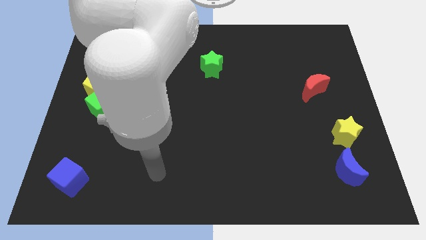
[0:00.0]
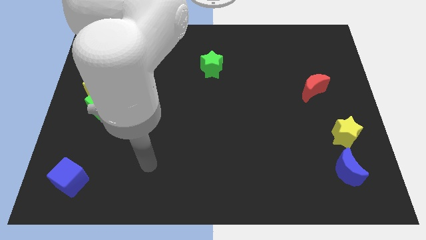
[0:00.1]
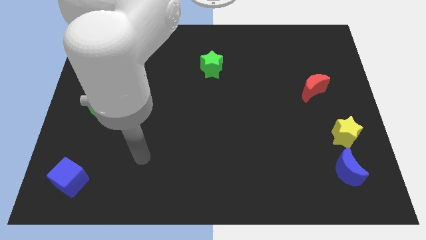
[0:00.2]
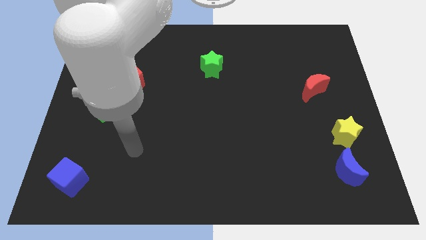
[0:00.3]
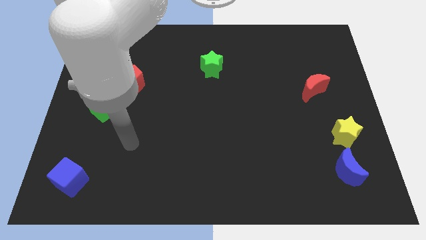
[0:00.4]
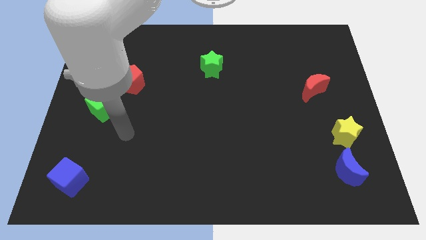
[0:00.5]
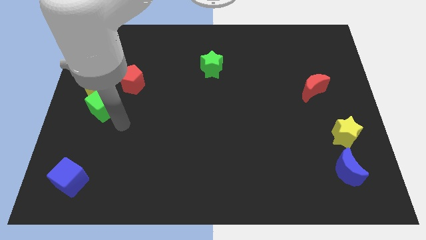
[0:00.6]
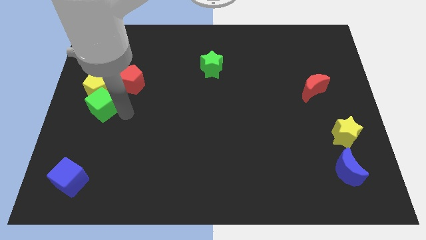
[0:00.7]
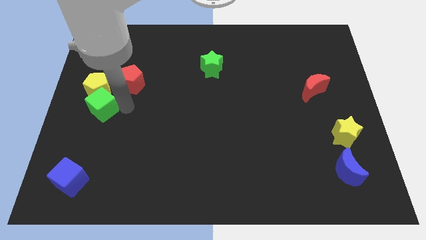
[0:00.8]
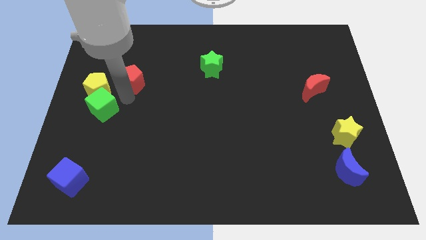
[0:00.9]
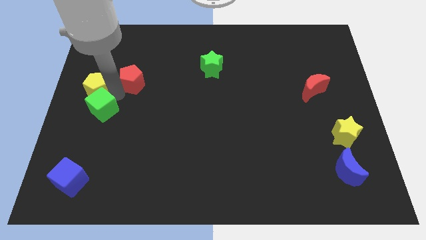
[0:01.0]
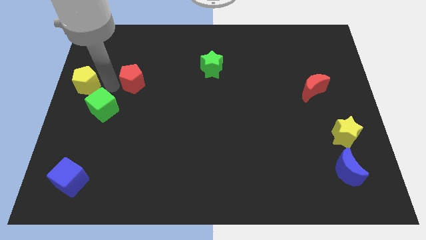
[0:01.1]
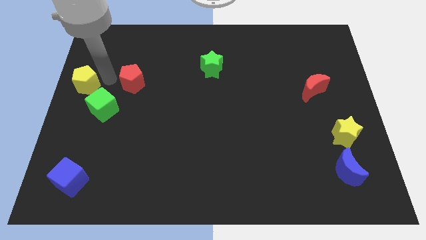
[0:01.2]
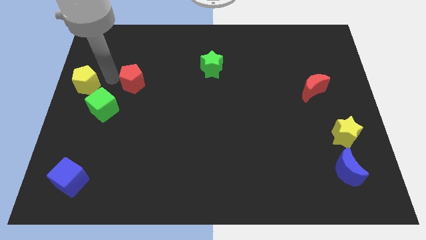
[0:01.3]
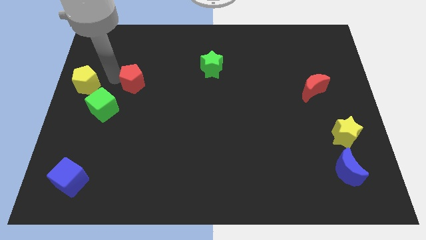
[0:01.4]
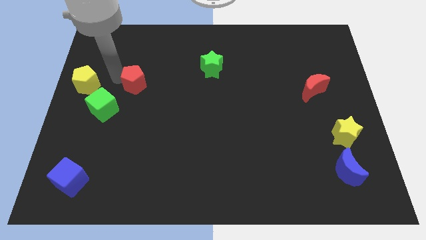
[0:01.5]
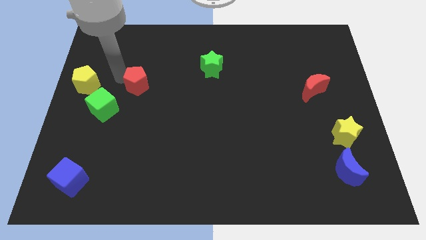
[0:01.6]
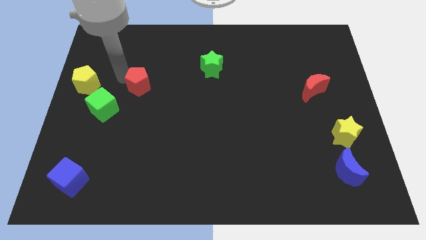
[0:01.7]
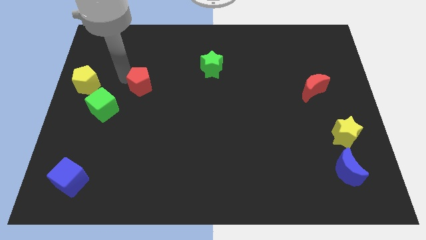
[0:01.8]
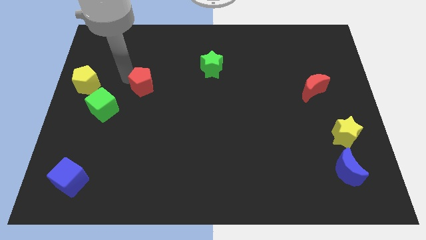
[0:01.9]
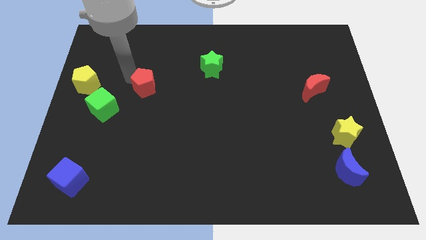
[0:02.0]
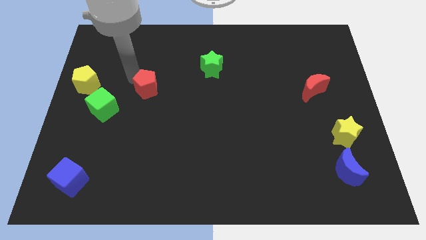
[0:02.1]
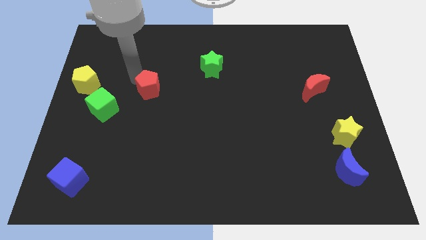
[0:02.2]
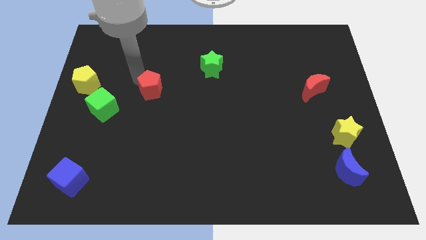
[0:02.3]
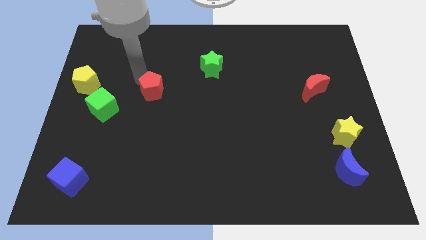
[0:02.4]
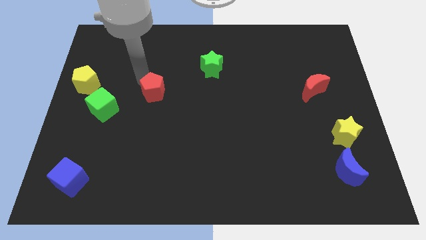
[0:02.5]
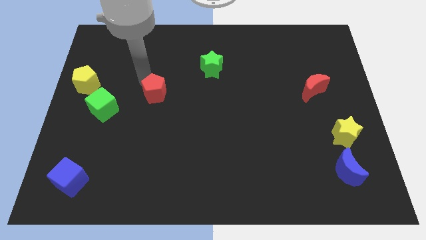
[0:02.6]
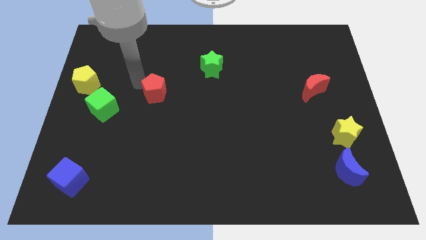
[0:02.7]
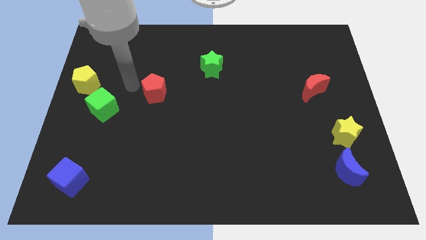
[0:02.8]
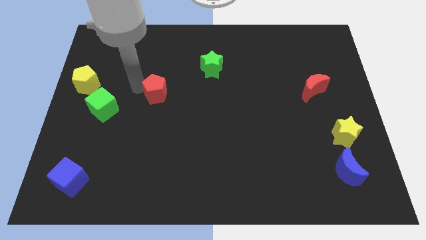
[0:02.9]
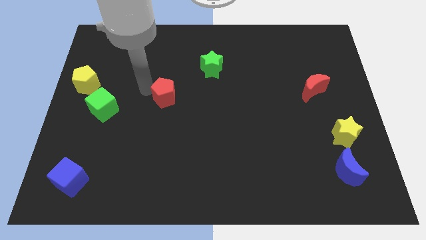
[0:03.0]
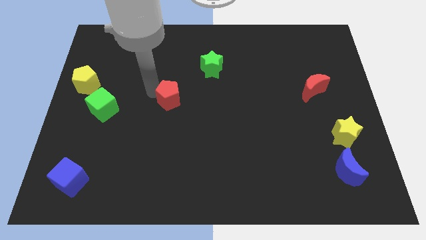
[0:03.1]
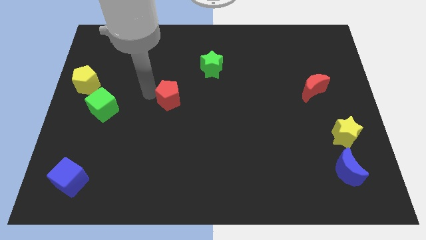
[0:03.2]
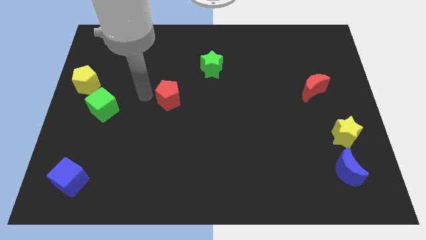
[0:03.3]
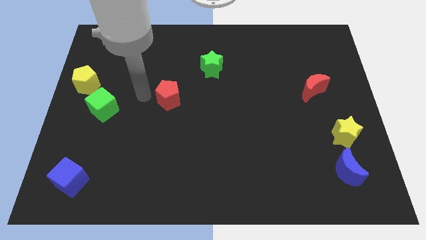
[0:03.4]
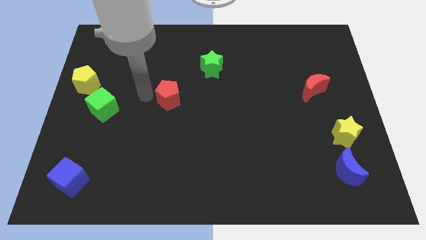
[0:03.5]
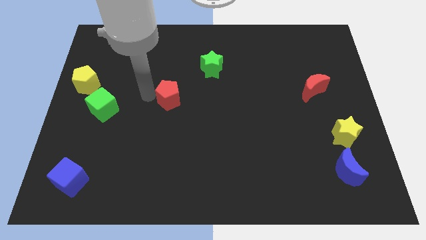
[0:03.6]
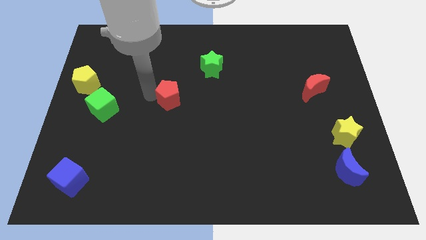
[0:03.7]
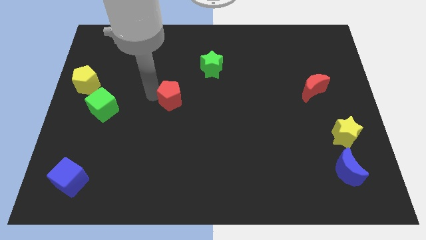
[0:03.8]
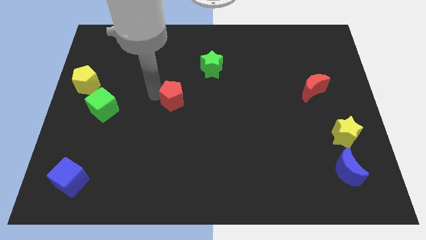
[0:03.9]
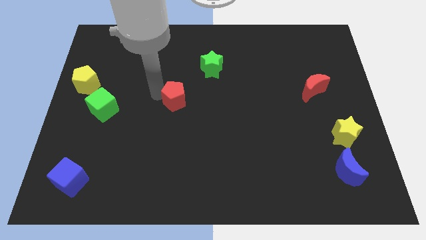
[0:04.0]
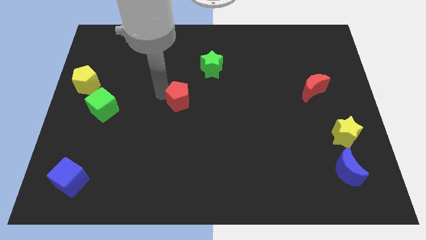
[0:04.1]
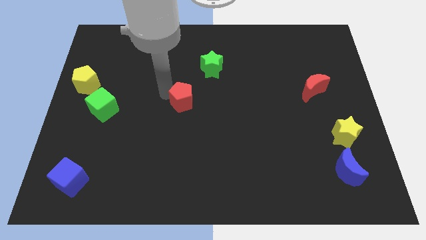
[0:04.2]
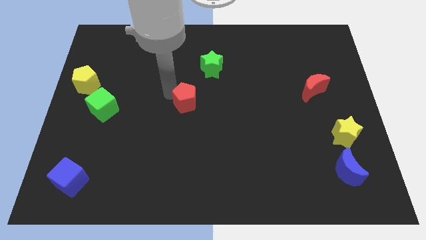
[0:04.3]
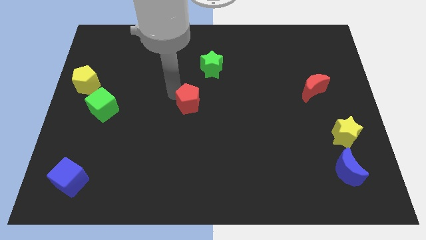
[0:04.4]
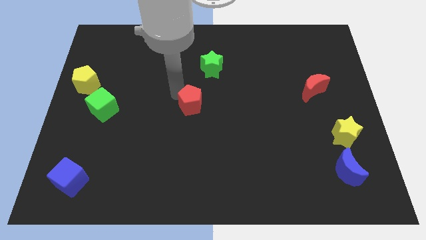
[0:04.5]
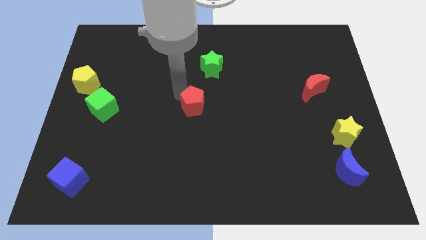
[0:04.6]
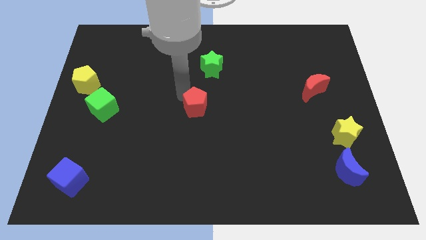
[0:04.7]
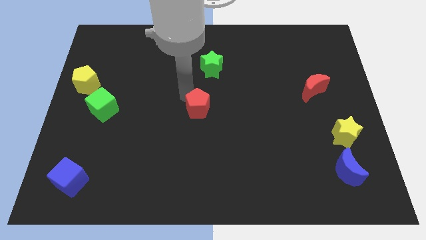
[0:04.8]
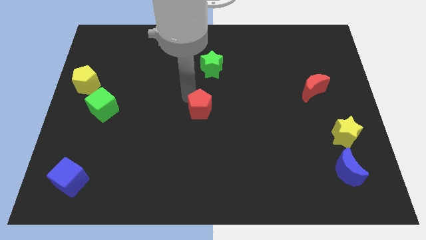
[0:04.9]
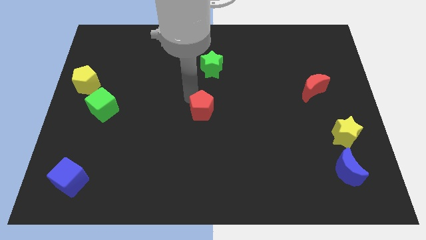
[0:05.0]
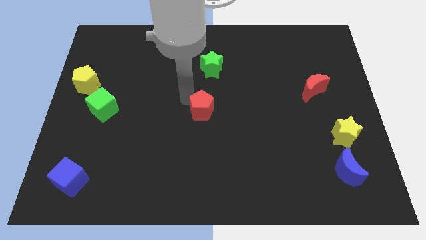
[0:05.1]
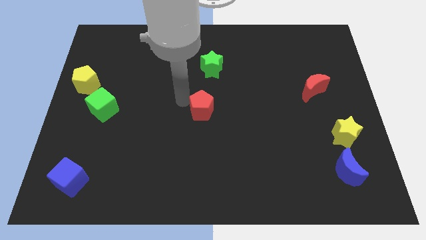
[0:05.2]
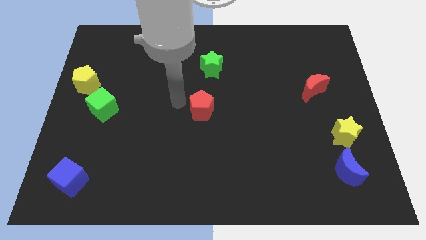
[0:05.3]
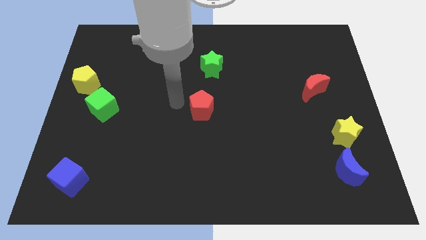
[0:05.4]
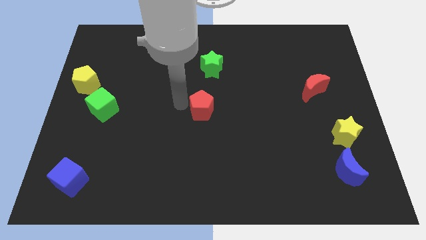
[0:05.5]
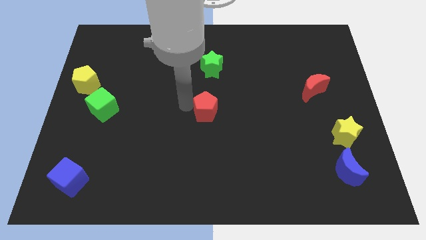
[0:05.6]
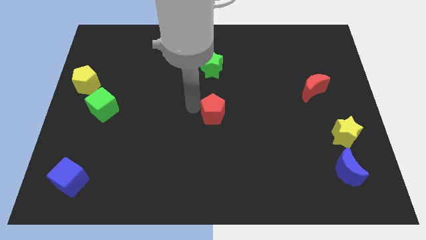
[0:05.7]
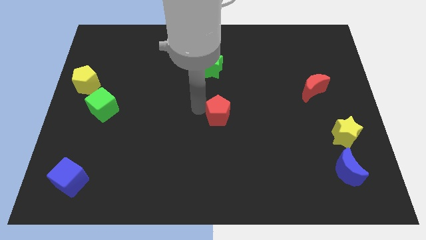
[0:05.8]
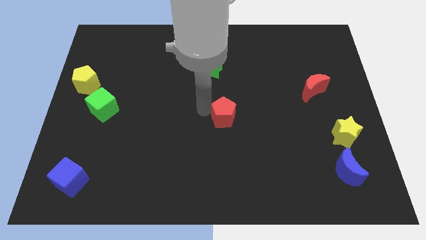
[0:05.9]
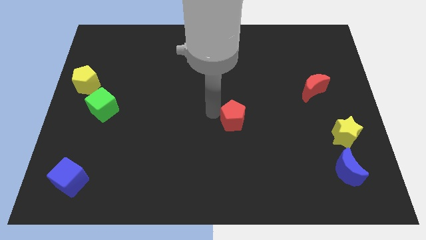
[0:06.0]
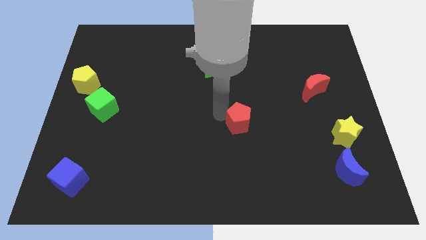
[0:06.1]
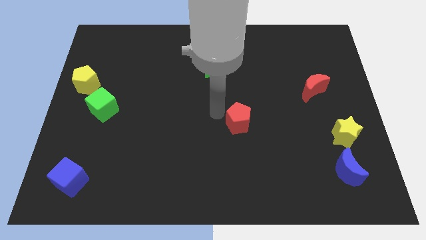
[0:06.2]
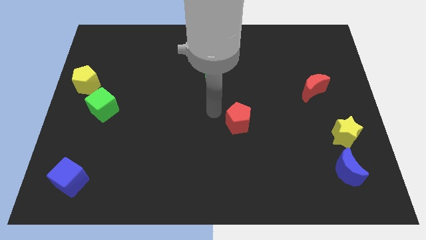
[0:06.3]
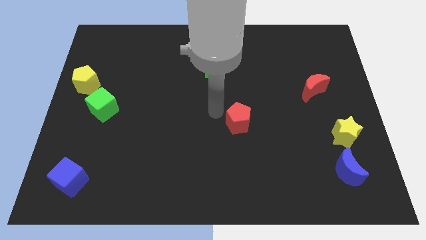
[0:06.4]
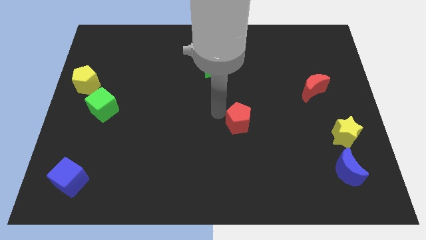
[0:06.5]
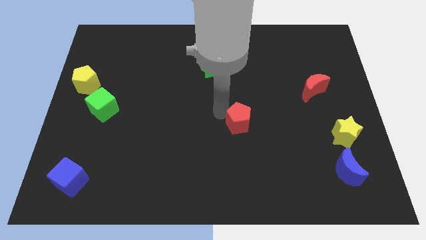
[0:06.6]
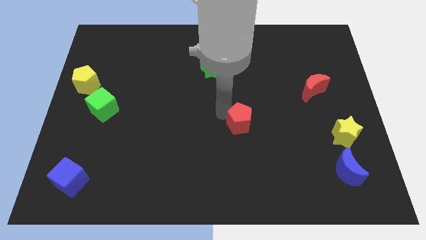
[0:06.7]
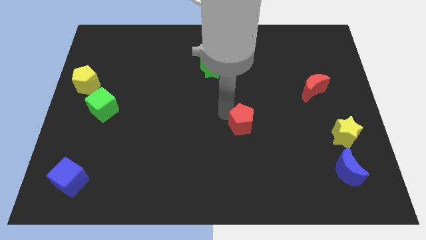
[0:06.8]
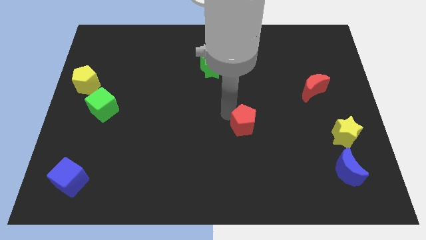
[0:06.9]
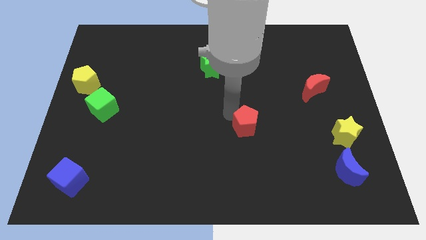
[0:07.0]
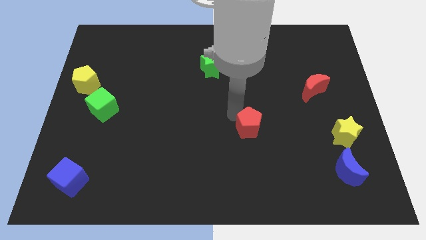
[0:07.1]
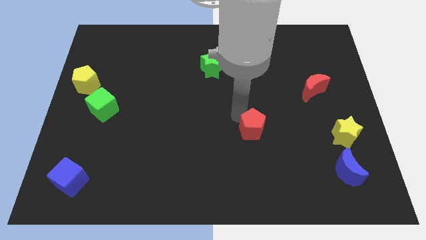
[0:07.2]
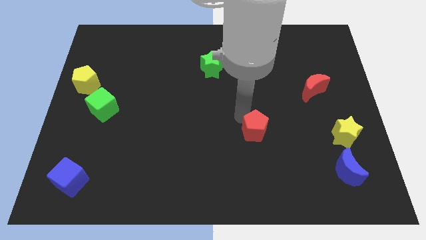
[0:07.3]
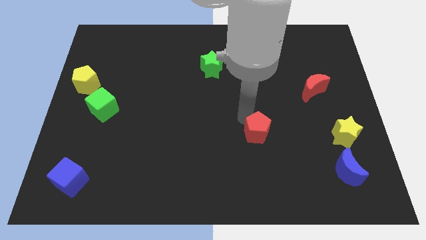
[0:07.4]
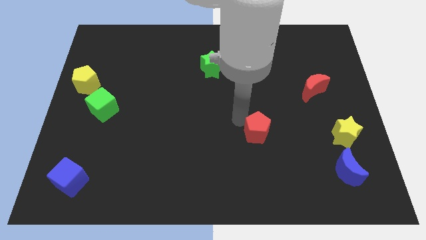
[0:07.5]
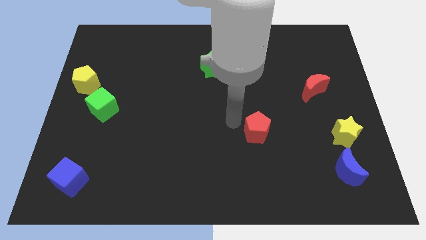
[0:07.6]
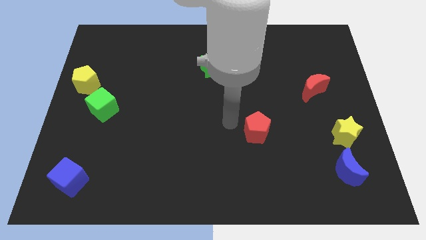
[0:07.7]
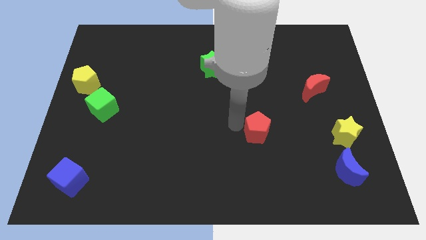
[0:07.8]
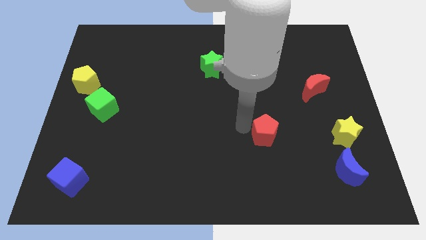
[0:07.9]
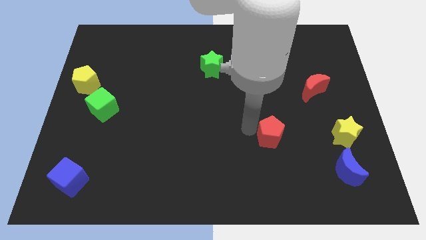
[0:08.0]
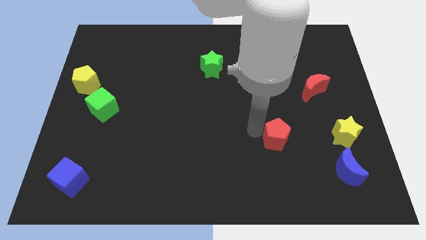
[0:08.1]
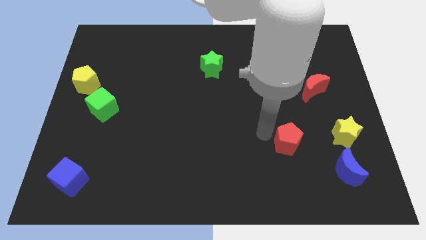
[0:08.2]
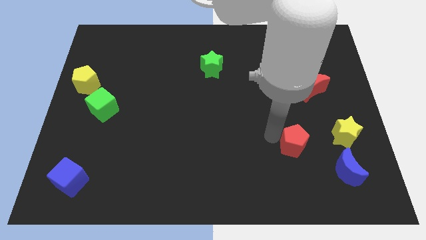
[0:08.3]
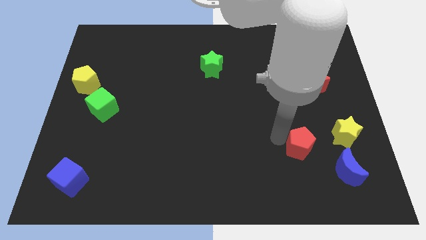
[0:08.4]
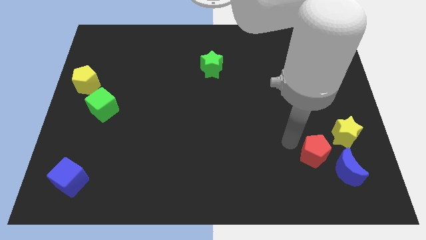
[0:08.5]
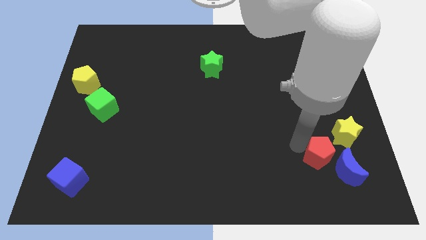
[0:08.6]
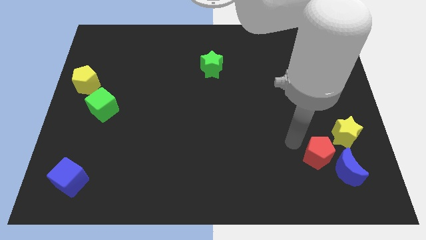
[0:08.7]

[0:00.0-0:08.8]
push the red pentagon towards the blue moon
